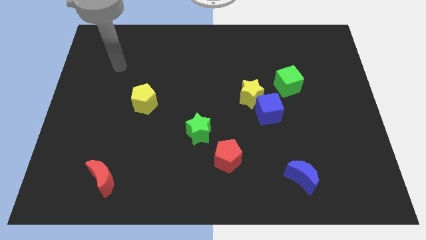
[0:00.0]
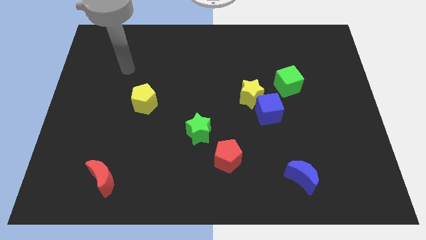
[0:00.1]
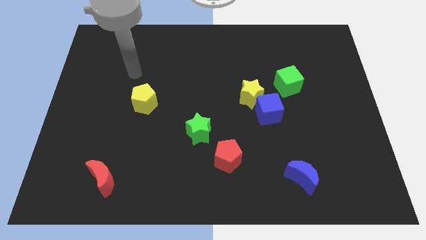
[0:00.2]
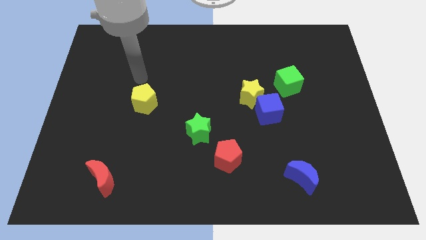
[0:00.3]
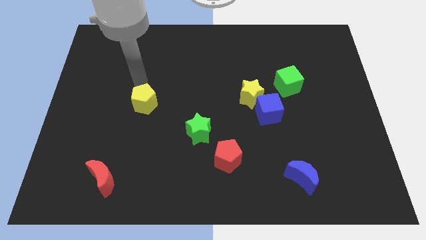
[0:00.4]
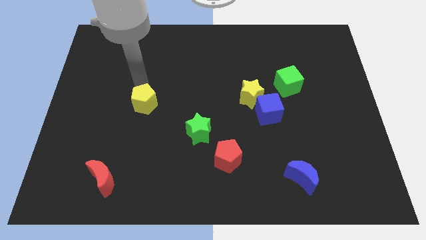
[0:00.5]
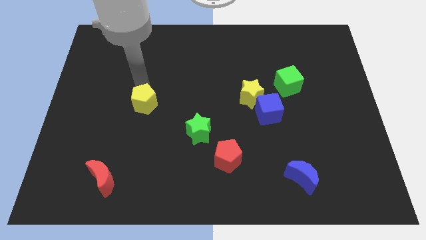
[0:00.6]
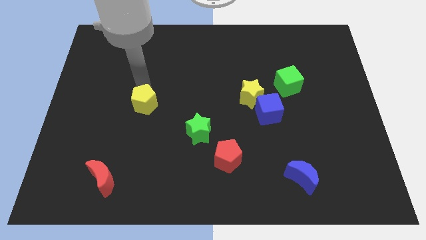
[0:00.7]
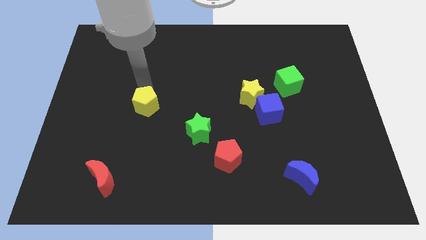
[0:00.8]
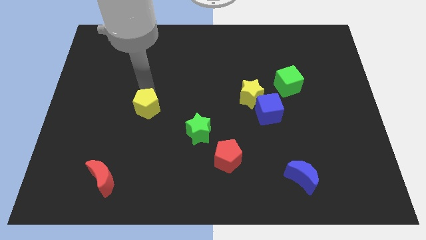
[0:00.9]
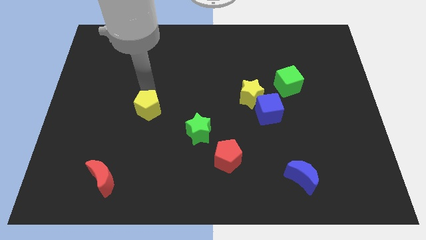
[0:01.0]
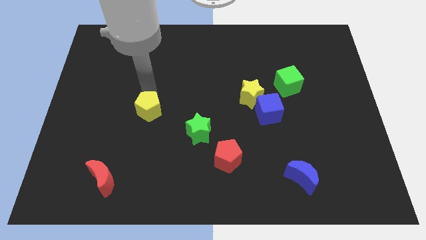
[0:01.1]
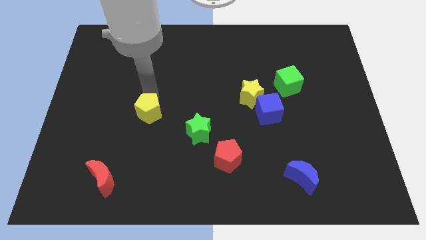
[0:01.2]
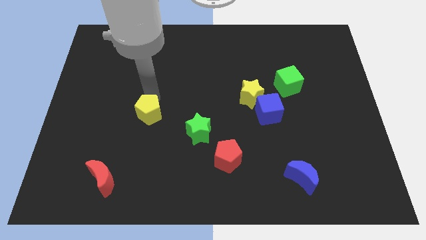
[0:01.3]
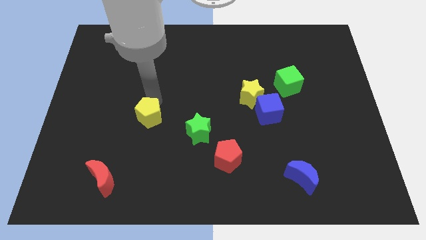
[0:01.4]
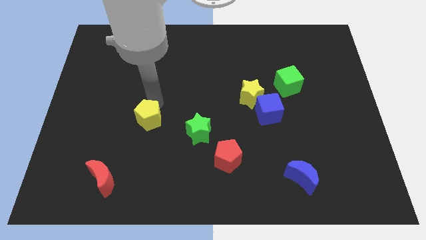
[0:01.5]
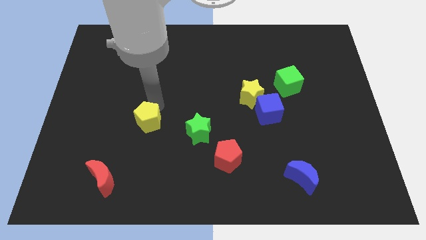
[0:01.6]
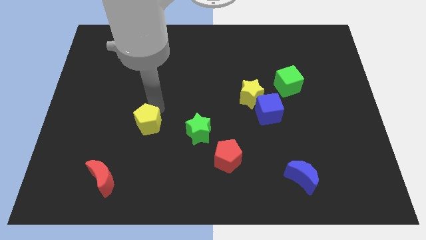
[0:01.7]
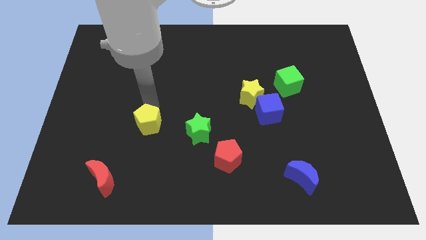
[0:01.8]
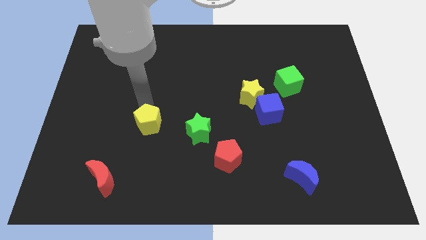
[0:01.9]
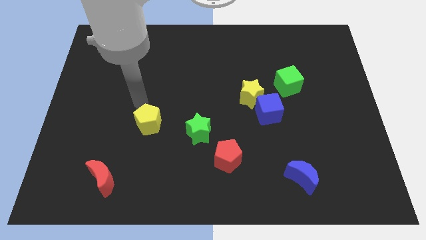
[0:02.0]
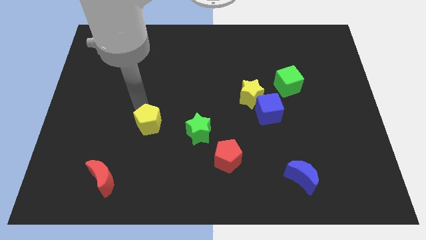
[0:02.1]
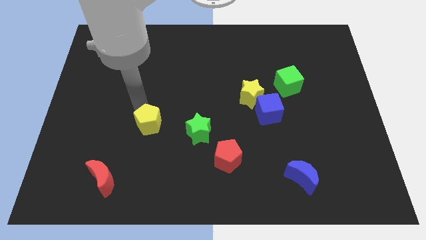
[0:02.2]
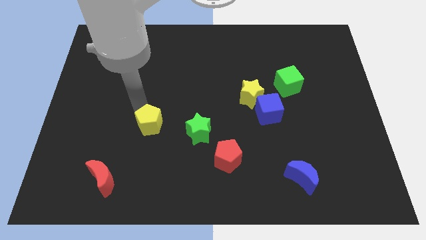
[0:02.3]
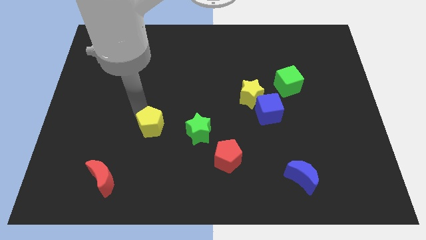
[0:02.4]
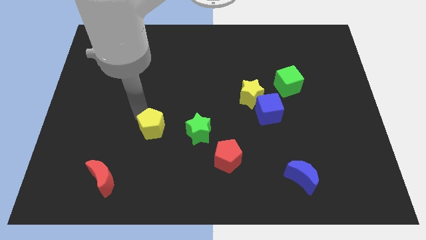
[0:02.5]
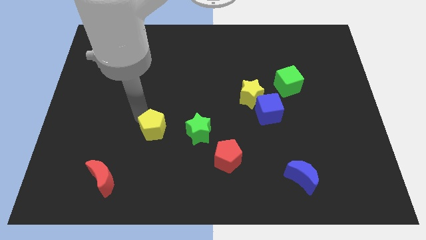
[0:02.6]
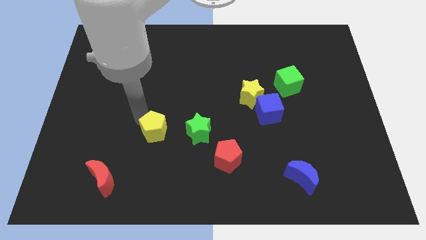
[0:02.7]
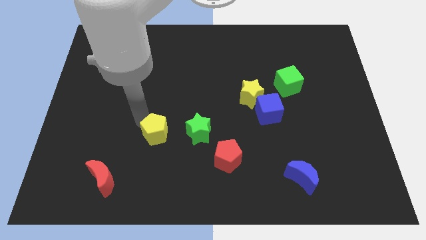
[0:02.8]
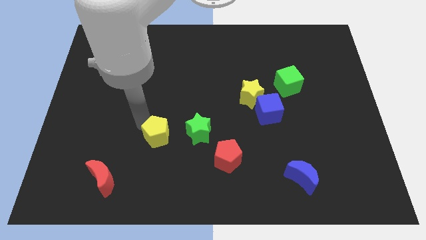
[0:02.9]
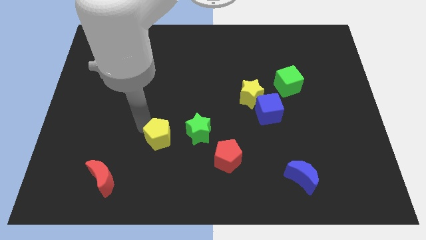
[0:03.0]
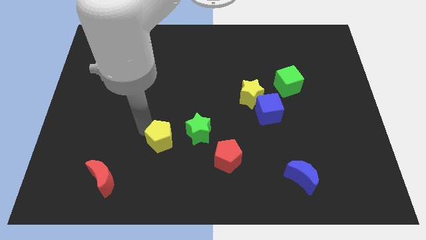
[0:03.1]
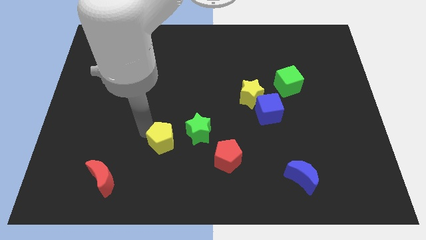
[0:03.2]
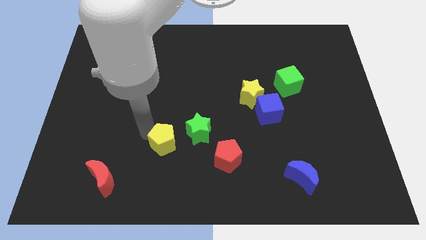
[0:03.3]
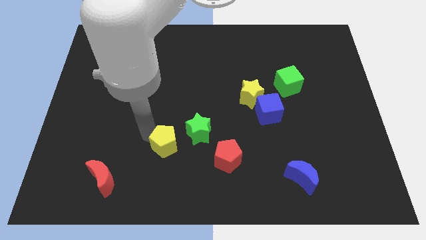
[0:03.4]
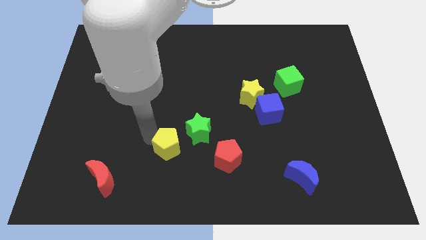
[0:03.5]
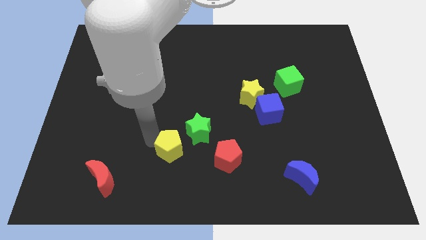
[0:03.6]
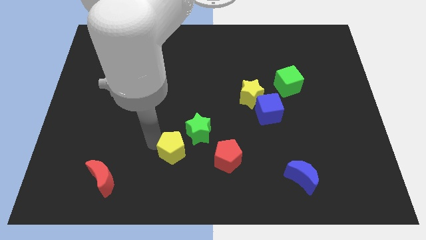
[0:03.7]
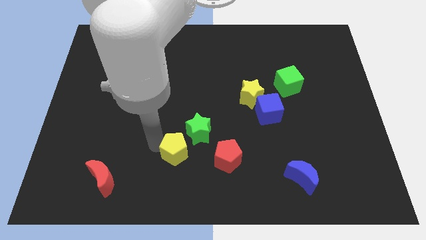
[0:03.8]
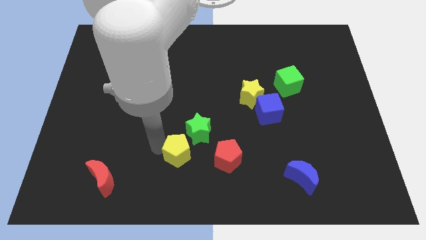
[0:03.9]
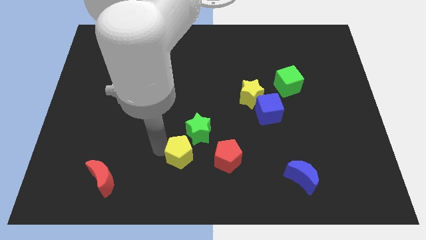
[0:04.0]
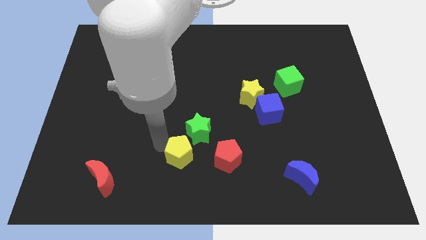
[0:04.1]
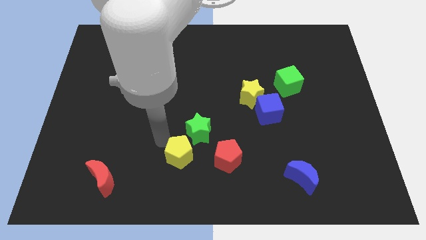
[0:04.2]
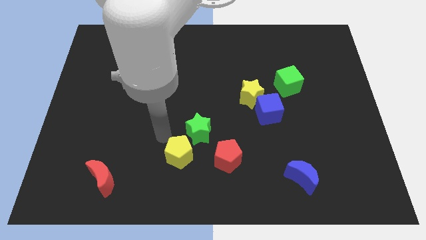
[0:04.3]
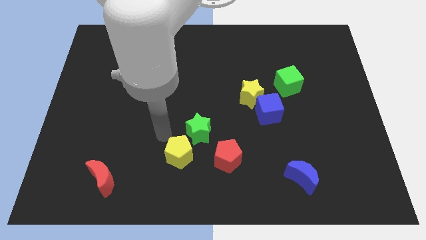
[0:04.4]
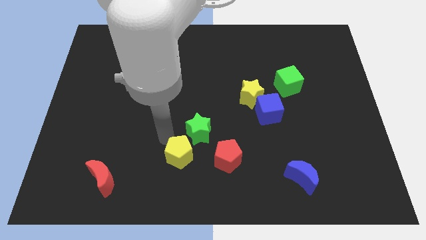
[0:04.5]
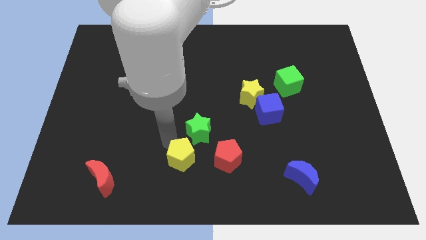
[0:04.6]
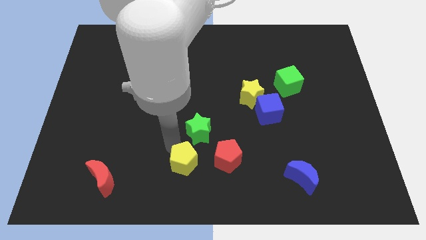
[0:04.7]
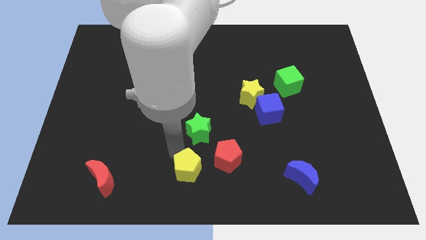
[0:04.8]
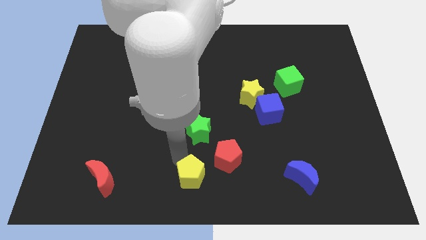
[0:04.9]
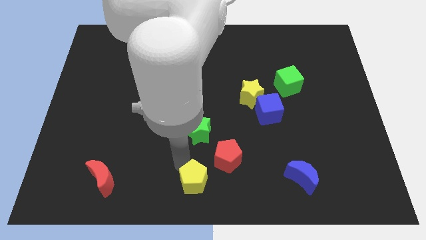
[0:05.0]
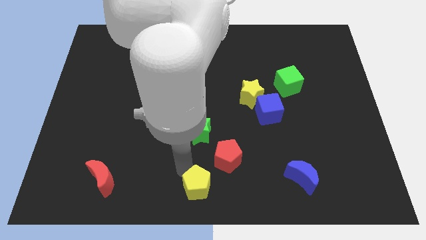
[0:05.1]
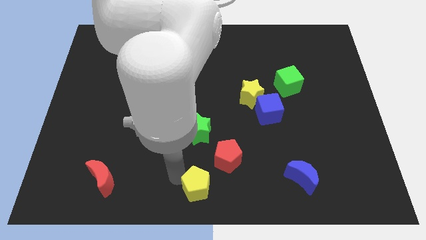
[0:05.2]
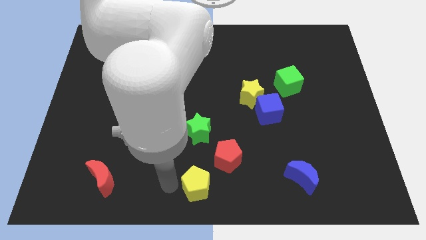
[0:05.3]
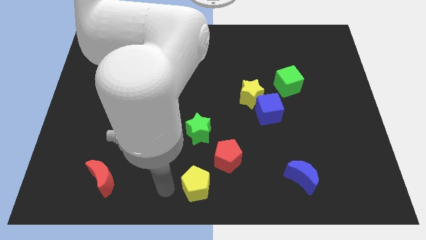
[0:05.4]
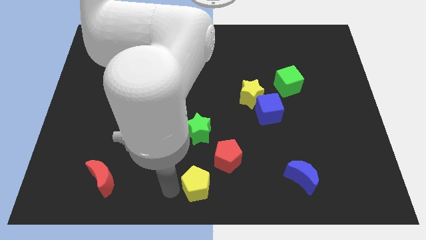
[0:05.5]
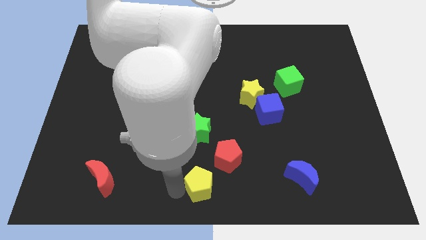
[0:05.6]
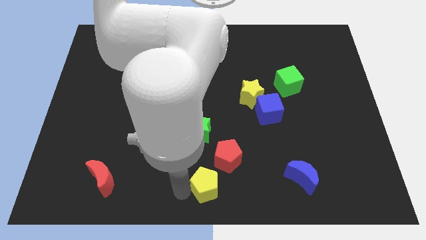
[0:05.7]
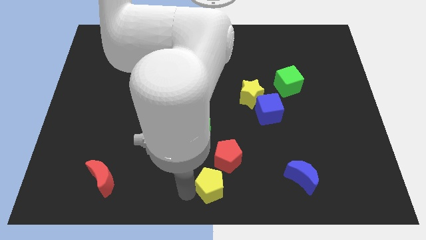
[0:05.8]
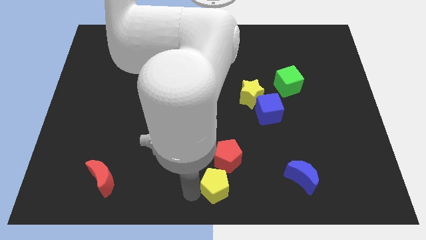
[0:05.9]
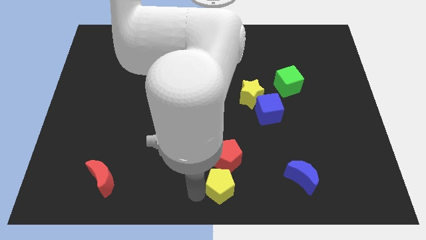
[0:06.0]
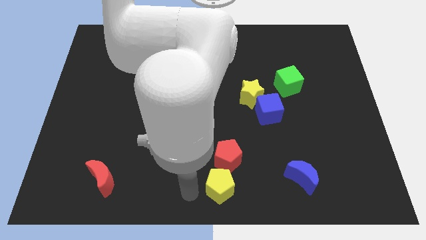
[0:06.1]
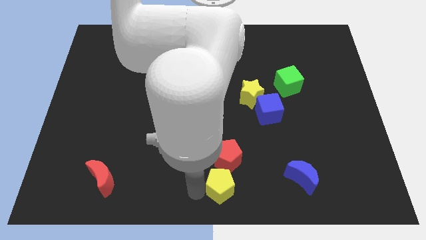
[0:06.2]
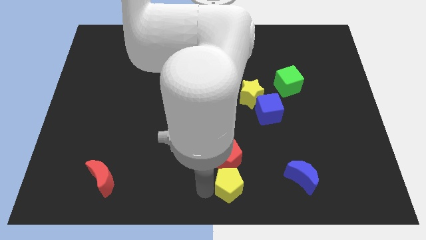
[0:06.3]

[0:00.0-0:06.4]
push the yellow pentagon to the bottom right side of the red pentagon
